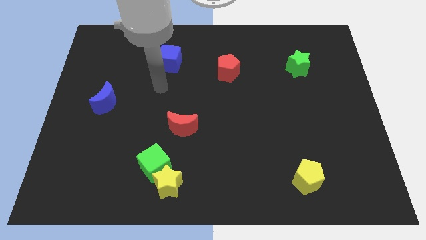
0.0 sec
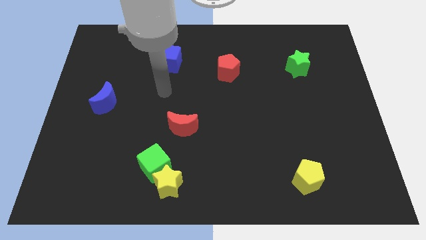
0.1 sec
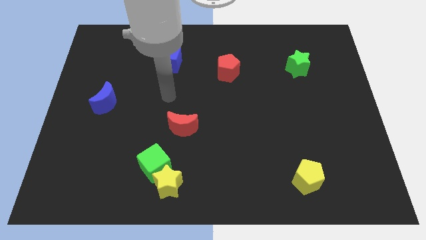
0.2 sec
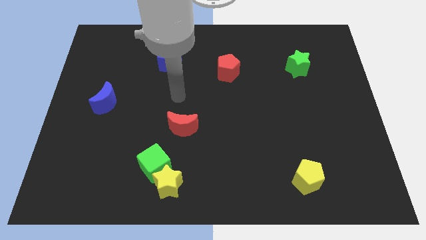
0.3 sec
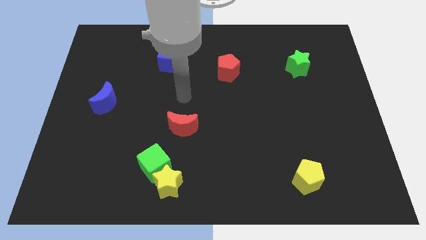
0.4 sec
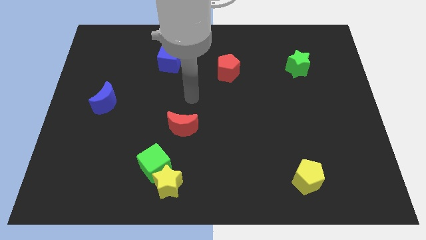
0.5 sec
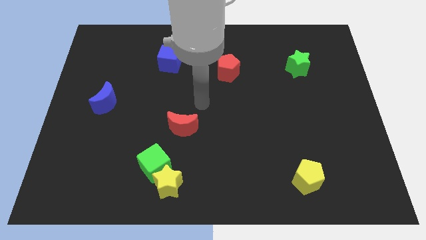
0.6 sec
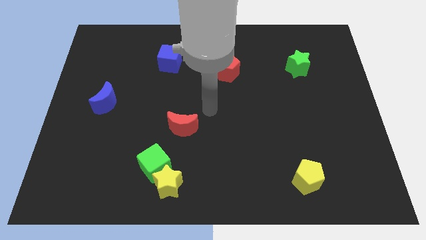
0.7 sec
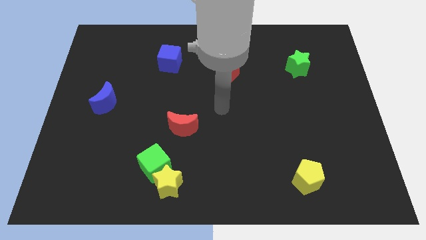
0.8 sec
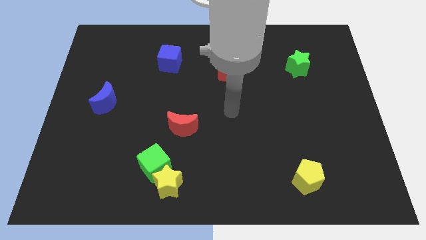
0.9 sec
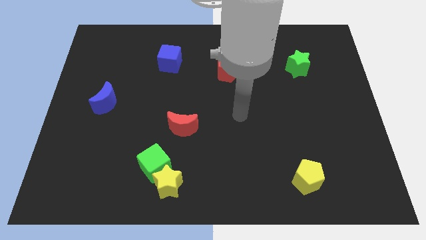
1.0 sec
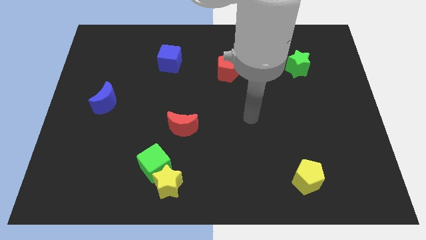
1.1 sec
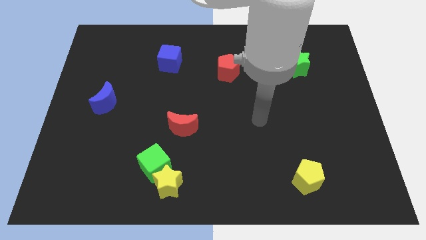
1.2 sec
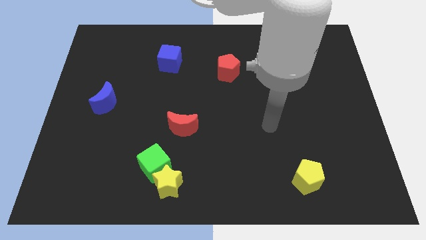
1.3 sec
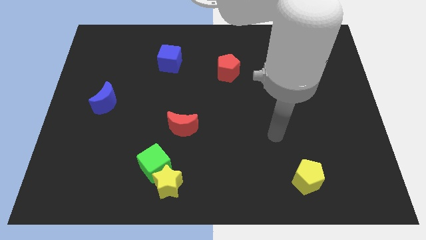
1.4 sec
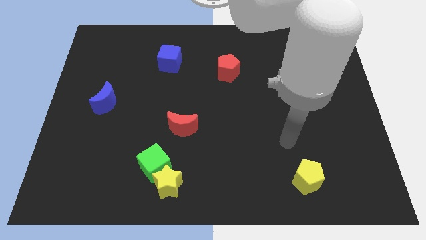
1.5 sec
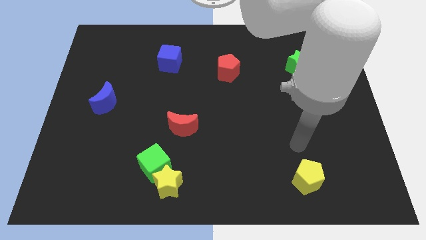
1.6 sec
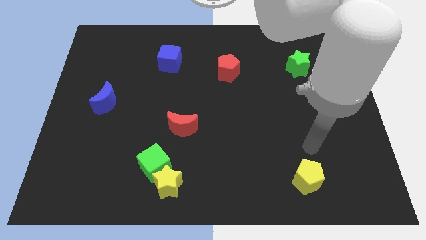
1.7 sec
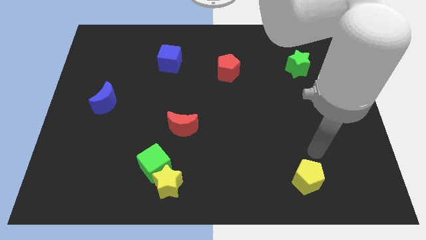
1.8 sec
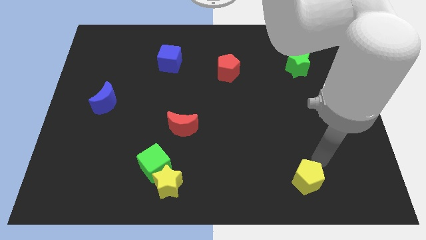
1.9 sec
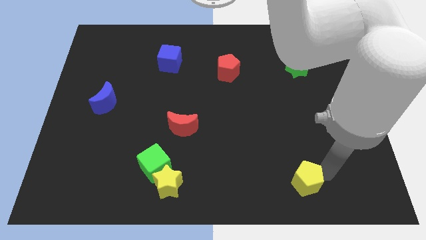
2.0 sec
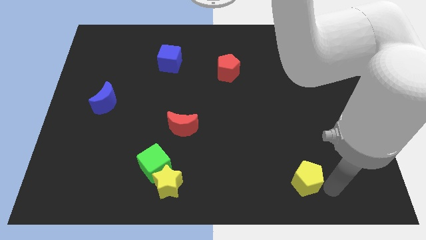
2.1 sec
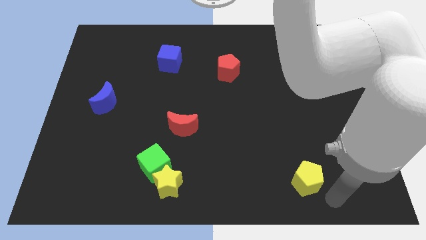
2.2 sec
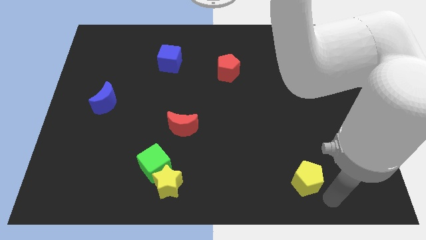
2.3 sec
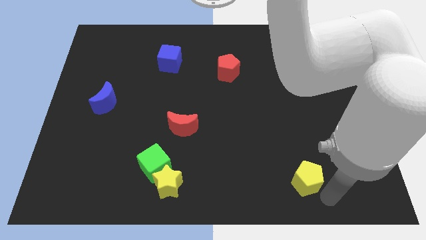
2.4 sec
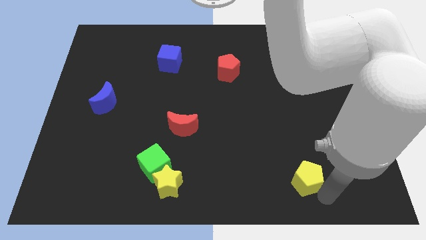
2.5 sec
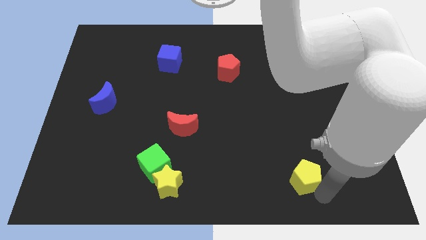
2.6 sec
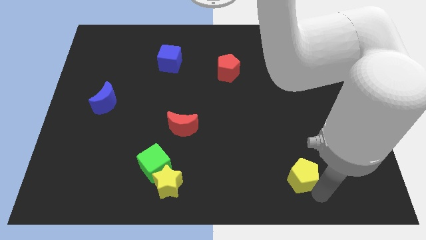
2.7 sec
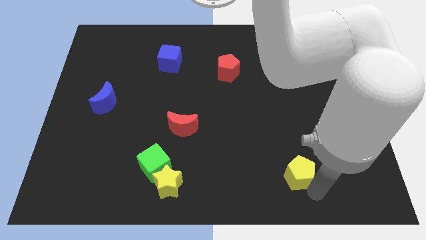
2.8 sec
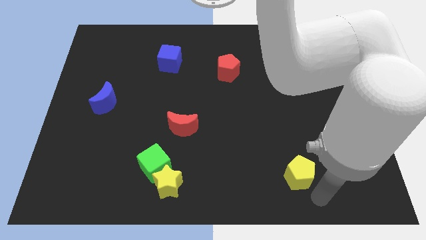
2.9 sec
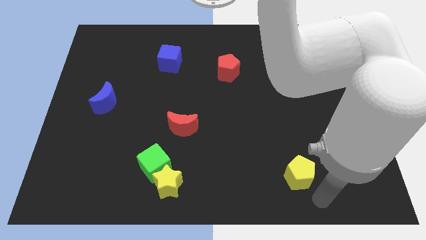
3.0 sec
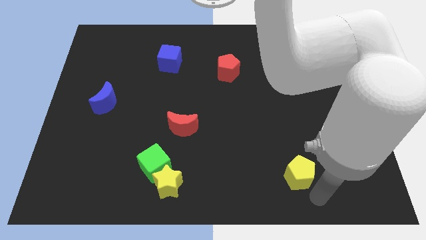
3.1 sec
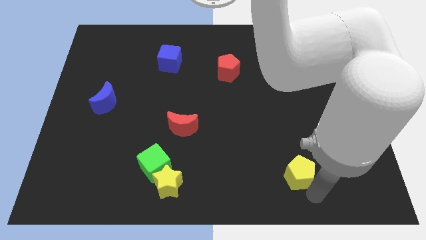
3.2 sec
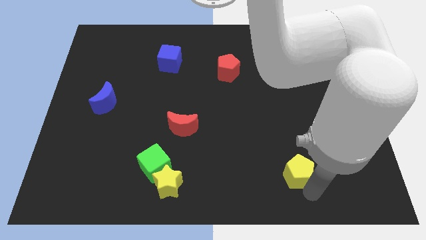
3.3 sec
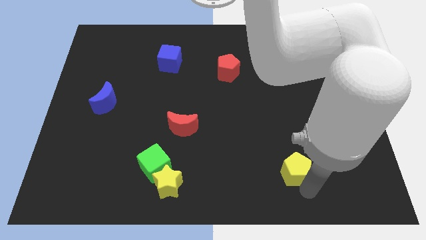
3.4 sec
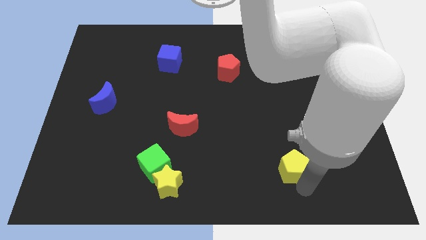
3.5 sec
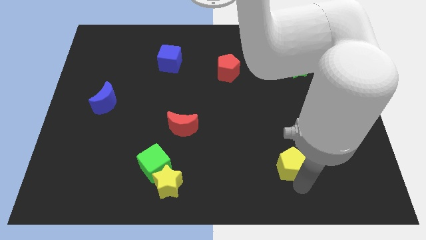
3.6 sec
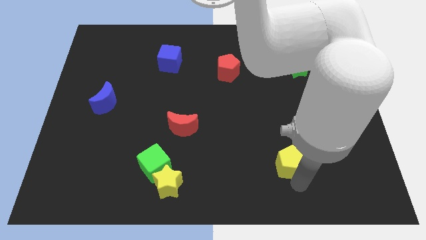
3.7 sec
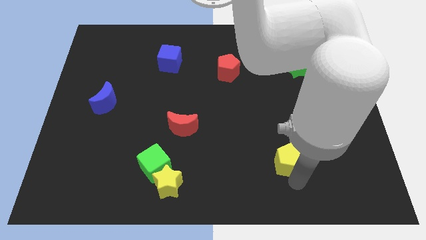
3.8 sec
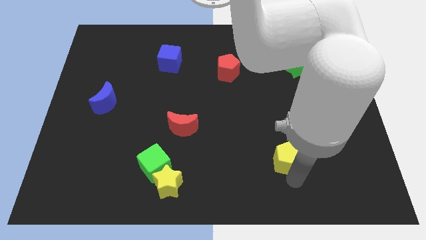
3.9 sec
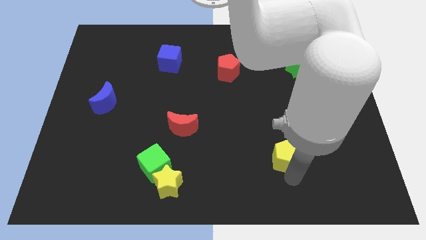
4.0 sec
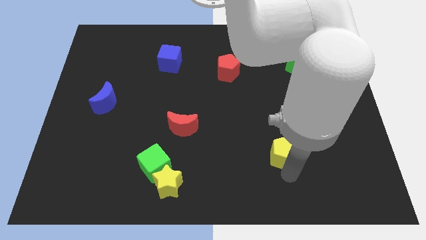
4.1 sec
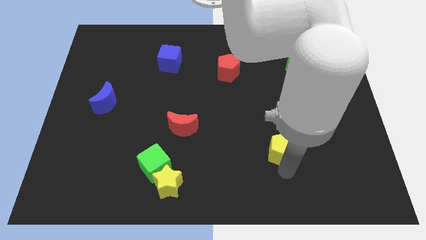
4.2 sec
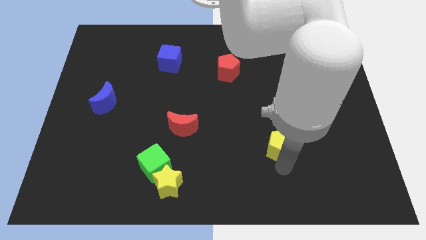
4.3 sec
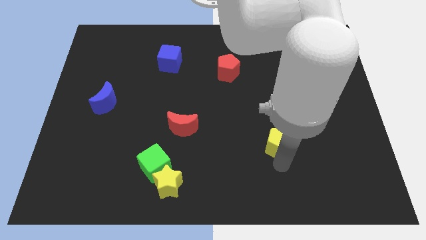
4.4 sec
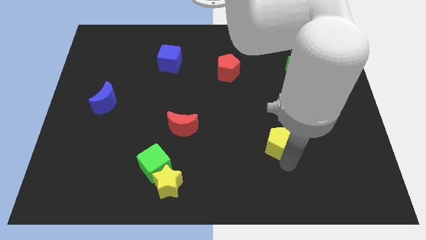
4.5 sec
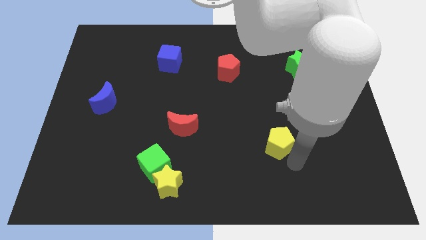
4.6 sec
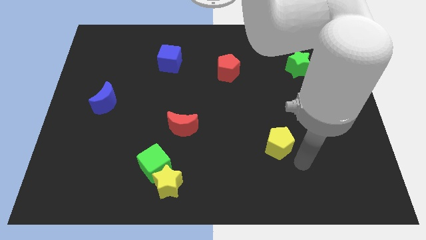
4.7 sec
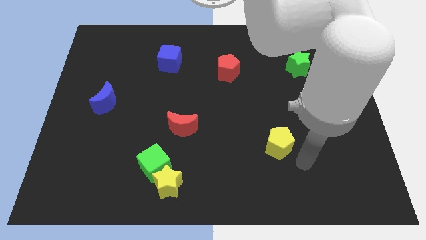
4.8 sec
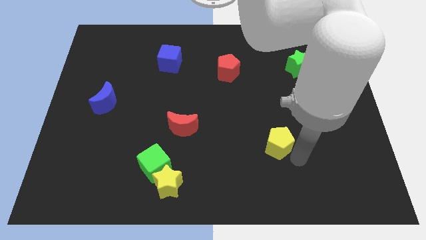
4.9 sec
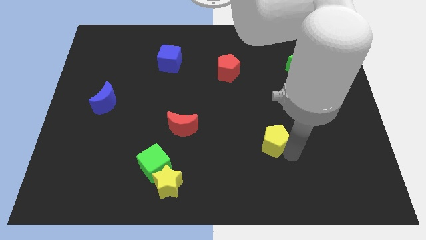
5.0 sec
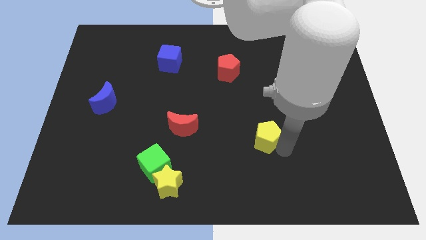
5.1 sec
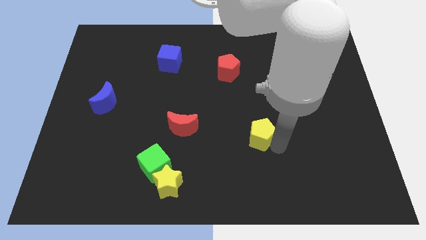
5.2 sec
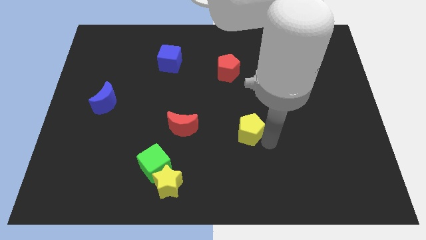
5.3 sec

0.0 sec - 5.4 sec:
push the yellow pentagon to the middle
